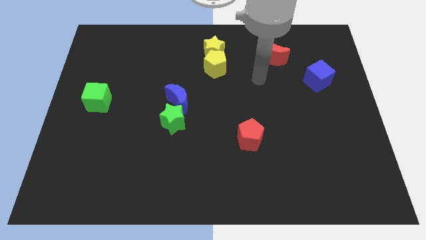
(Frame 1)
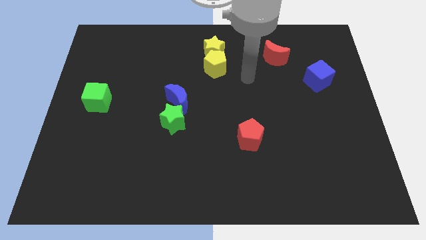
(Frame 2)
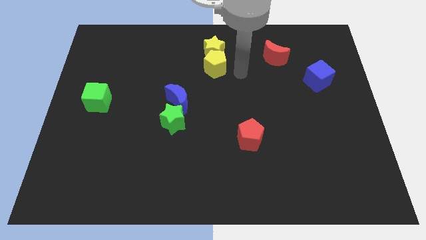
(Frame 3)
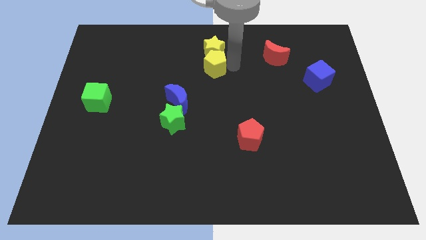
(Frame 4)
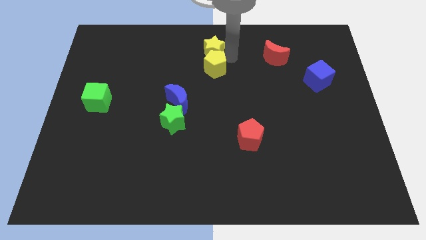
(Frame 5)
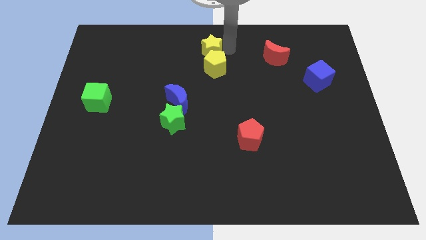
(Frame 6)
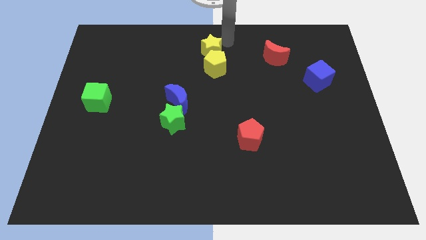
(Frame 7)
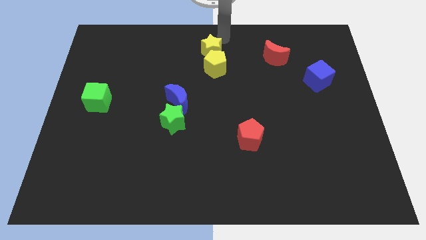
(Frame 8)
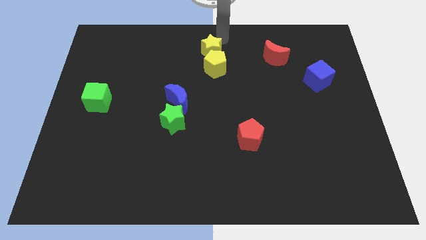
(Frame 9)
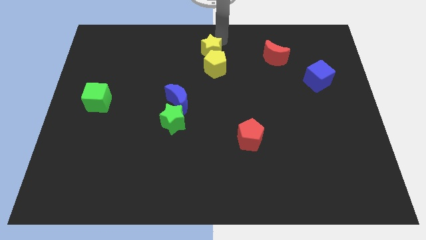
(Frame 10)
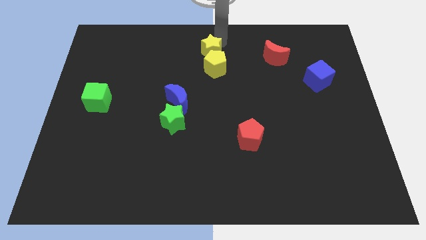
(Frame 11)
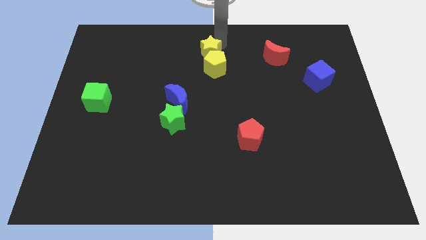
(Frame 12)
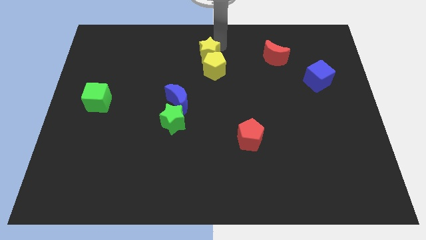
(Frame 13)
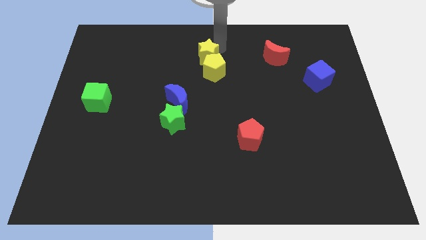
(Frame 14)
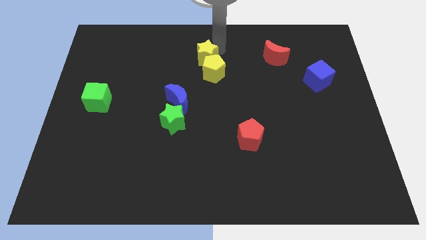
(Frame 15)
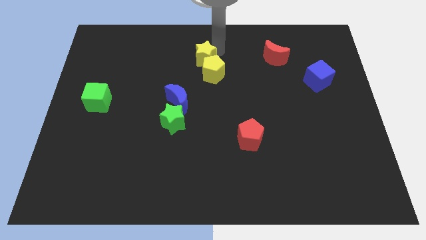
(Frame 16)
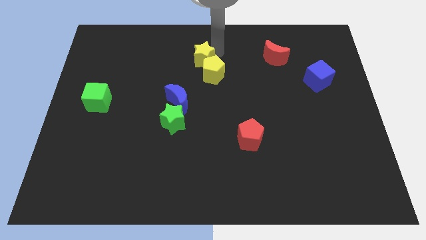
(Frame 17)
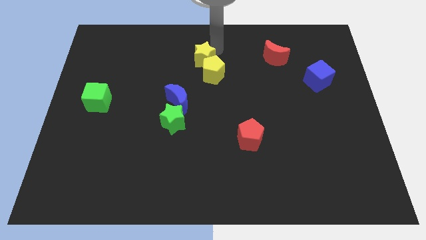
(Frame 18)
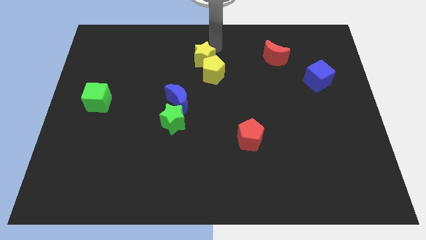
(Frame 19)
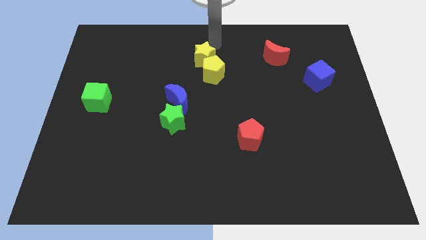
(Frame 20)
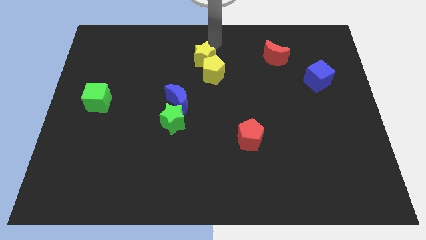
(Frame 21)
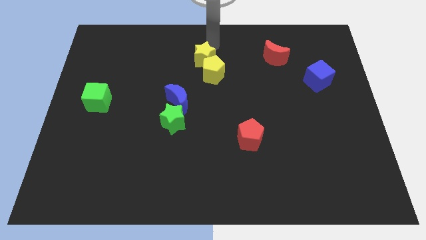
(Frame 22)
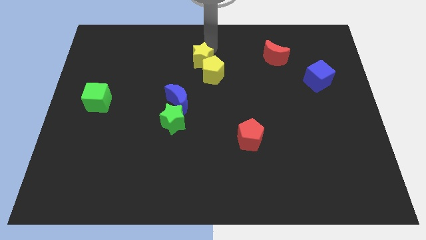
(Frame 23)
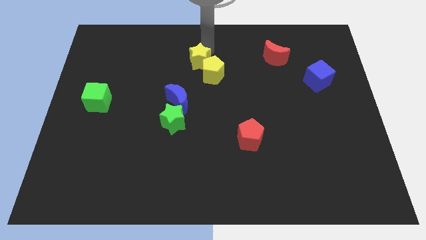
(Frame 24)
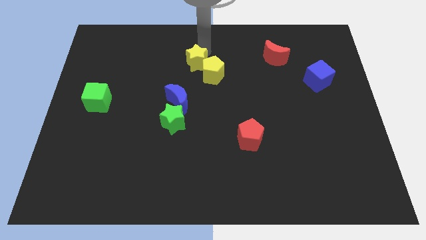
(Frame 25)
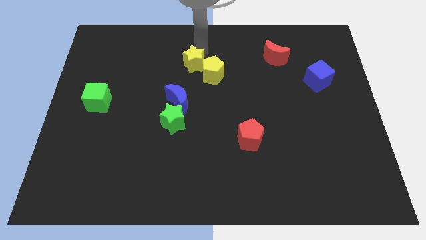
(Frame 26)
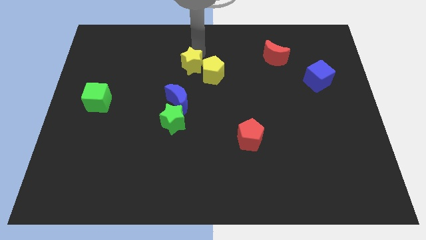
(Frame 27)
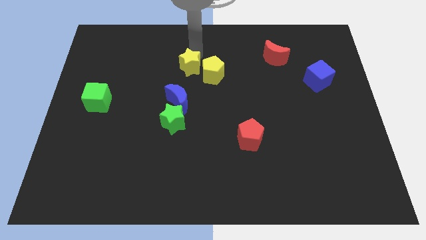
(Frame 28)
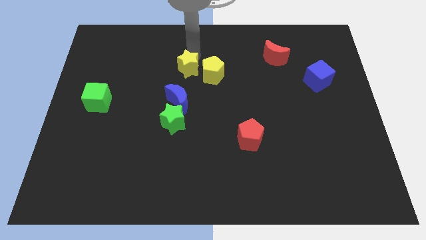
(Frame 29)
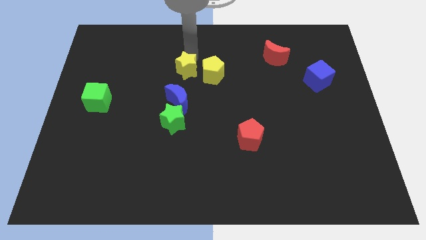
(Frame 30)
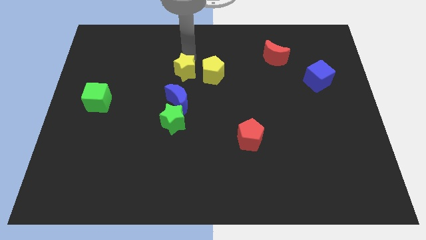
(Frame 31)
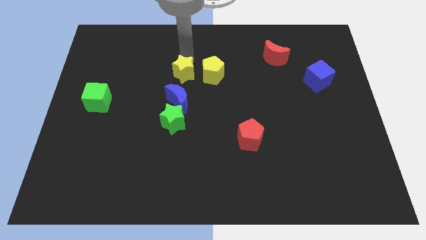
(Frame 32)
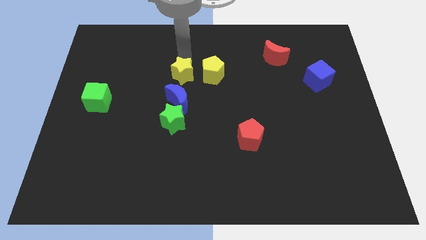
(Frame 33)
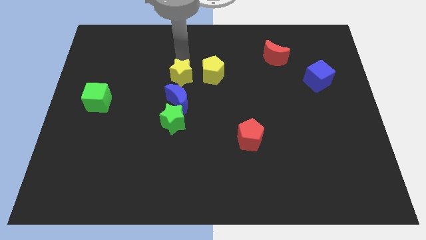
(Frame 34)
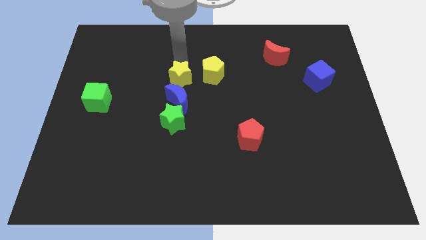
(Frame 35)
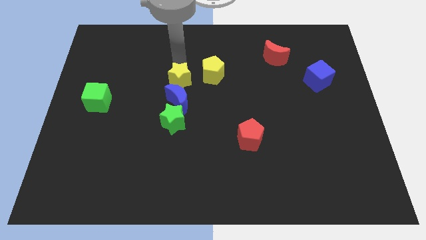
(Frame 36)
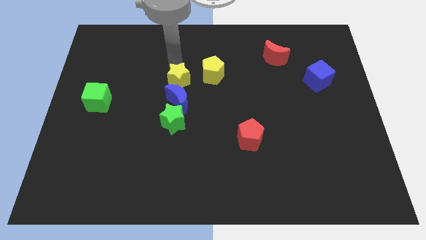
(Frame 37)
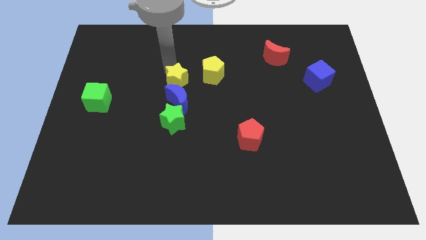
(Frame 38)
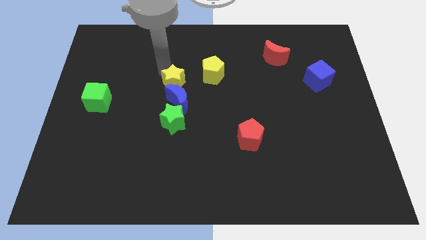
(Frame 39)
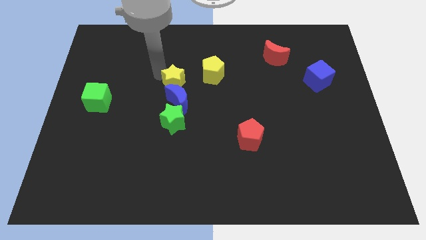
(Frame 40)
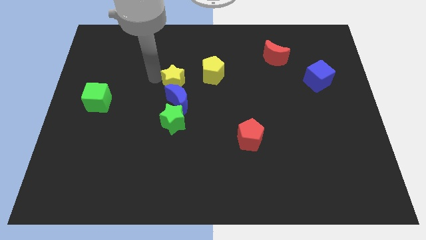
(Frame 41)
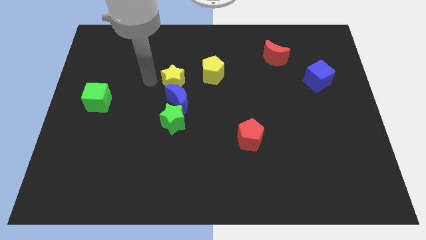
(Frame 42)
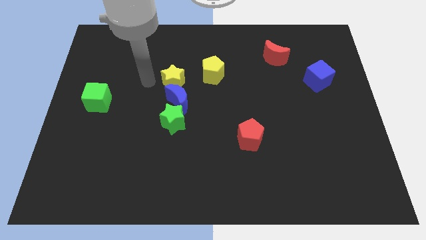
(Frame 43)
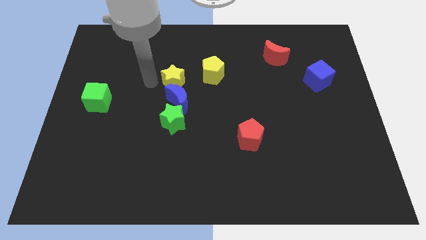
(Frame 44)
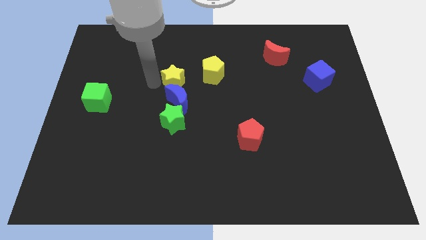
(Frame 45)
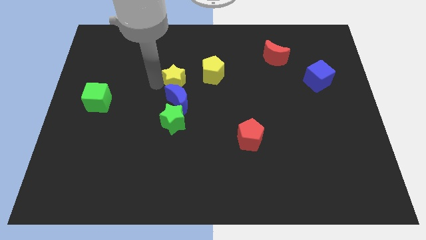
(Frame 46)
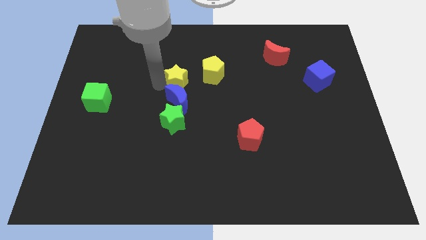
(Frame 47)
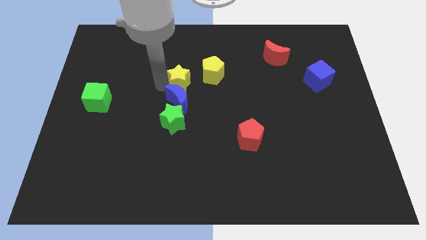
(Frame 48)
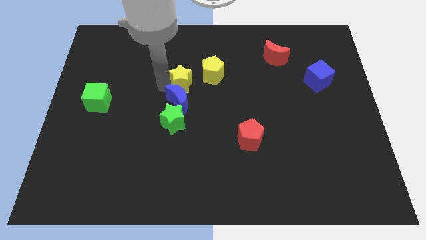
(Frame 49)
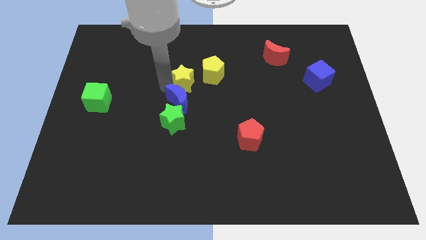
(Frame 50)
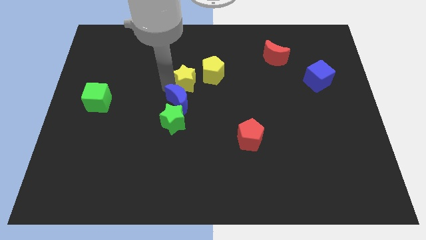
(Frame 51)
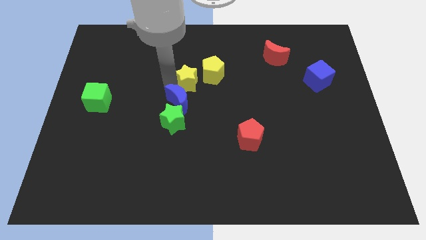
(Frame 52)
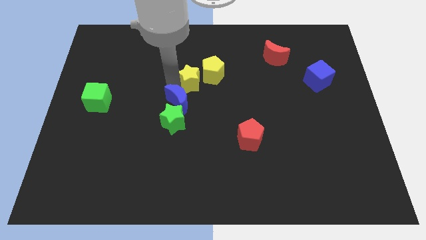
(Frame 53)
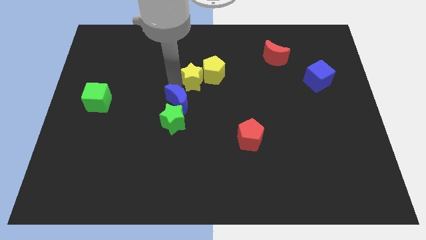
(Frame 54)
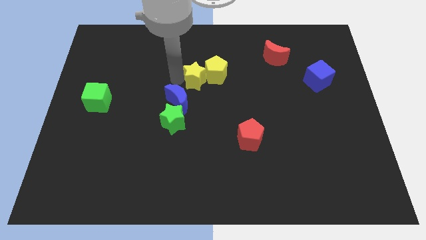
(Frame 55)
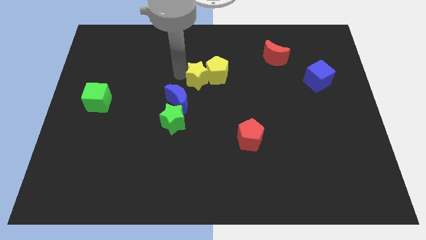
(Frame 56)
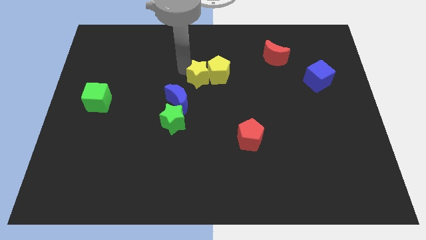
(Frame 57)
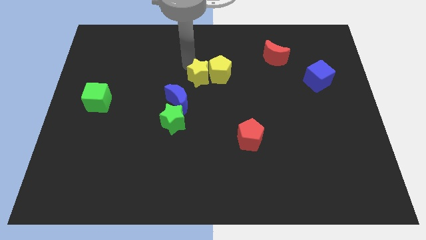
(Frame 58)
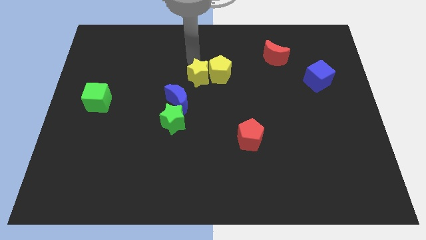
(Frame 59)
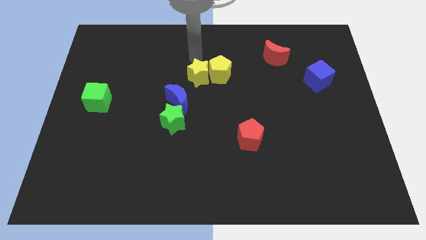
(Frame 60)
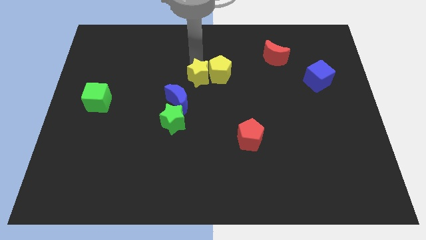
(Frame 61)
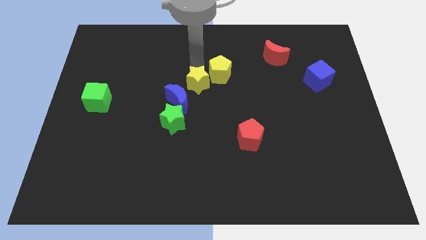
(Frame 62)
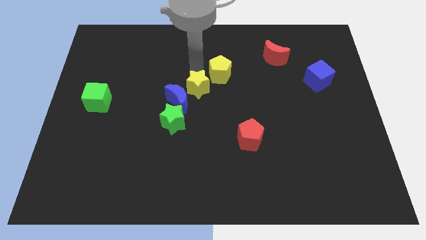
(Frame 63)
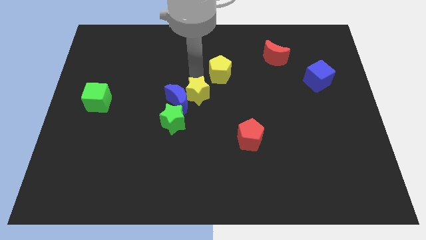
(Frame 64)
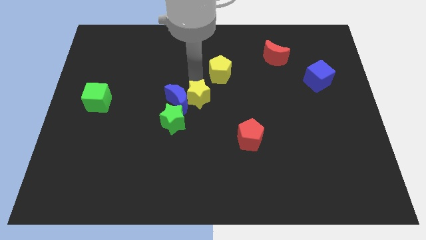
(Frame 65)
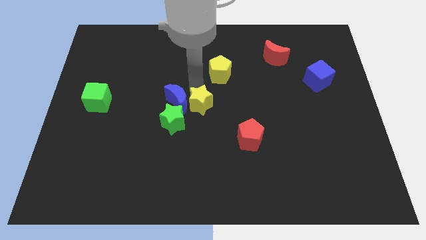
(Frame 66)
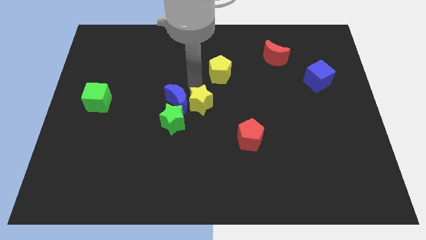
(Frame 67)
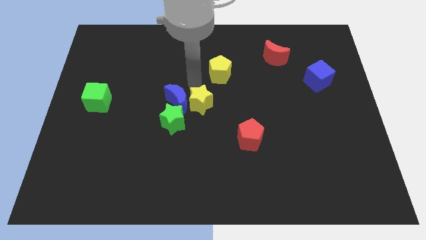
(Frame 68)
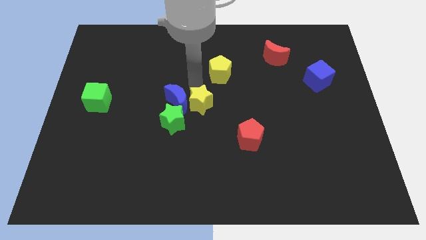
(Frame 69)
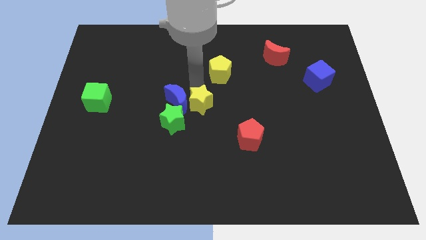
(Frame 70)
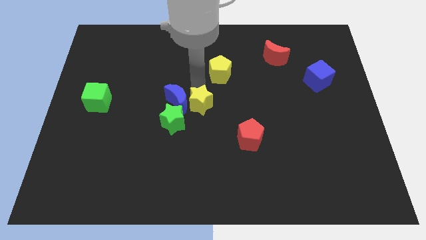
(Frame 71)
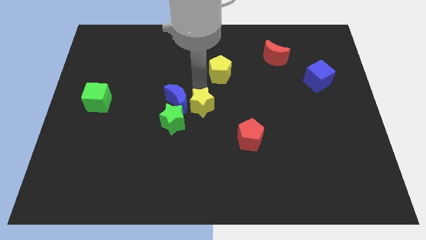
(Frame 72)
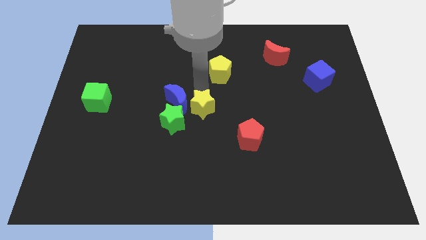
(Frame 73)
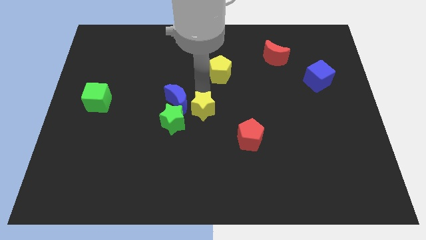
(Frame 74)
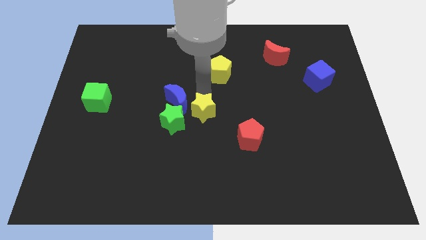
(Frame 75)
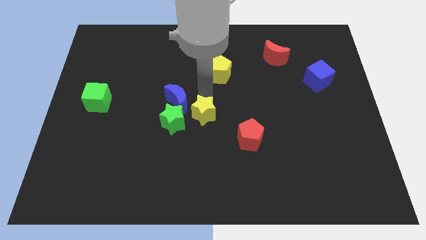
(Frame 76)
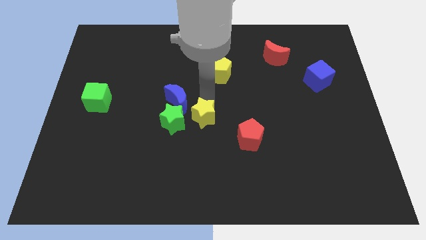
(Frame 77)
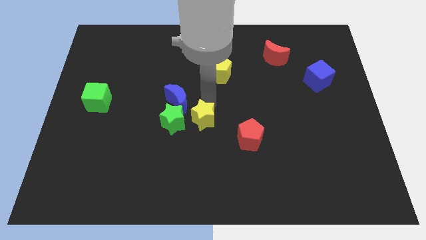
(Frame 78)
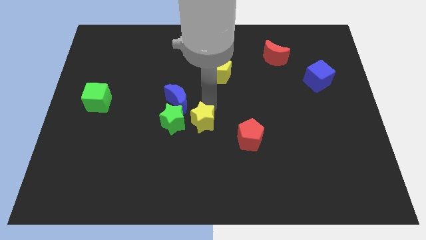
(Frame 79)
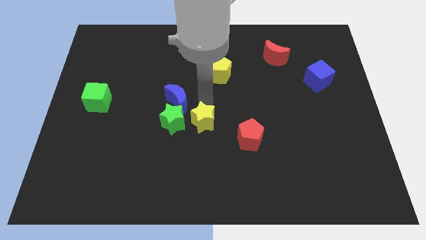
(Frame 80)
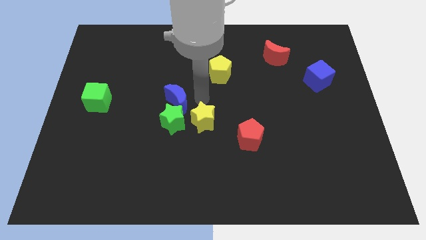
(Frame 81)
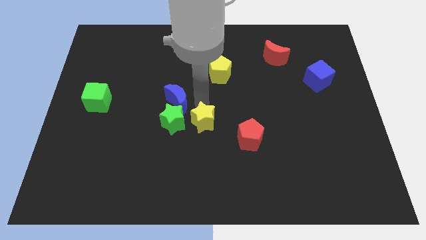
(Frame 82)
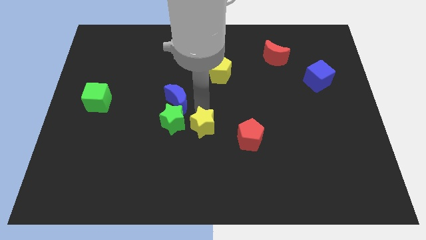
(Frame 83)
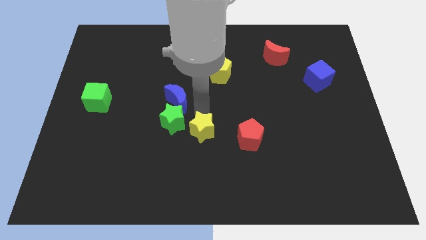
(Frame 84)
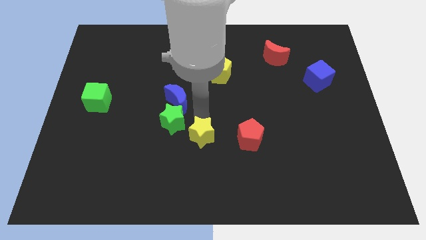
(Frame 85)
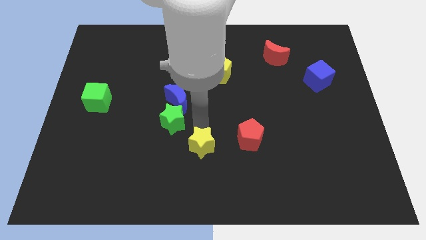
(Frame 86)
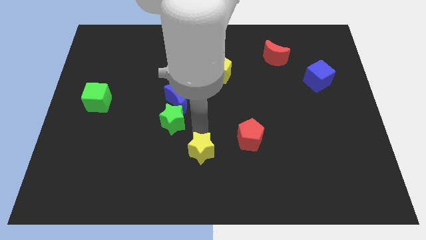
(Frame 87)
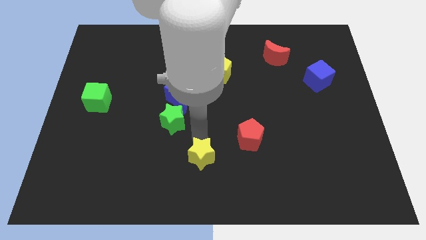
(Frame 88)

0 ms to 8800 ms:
put the yellow star to the bottom
